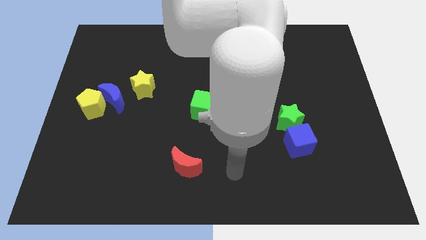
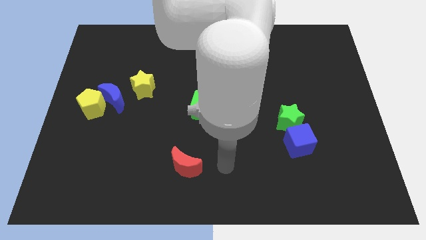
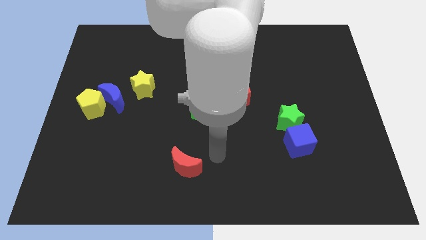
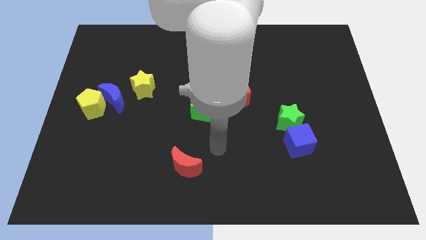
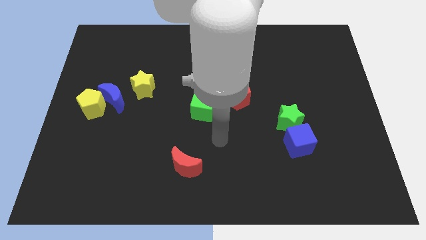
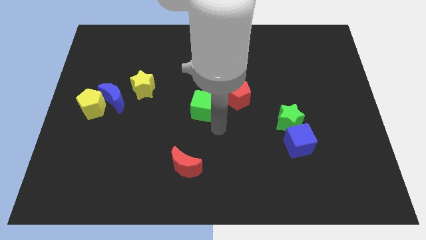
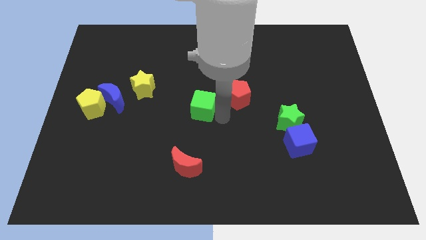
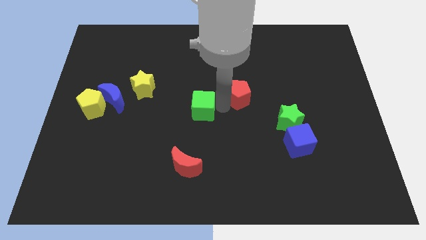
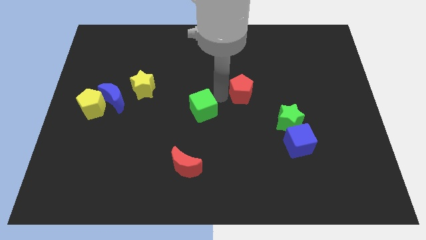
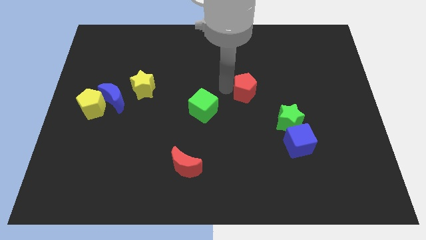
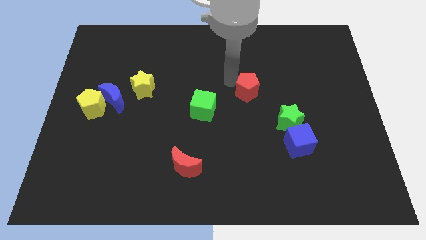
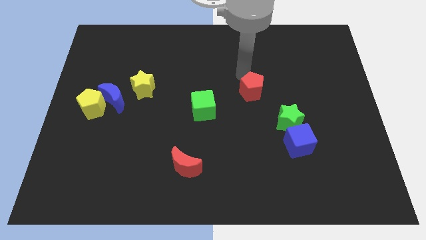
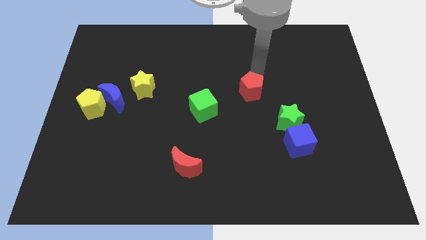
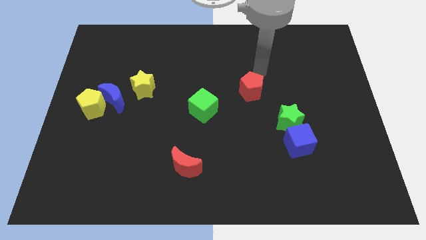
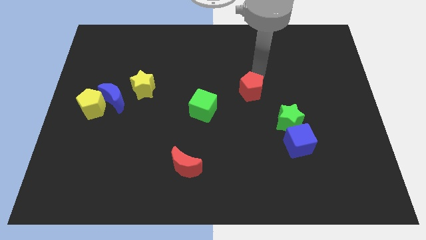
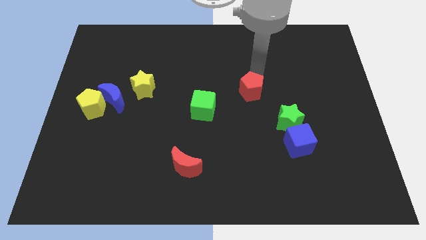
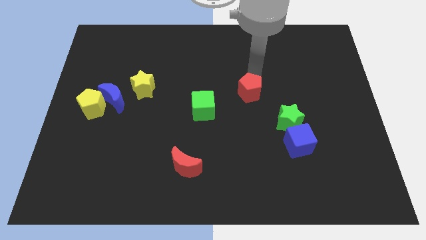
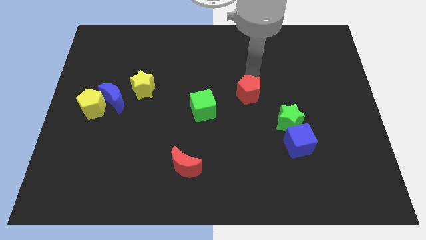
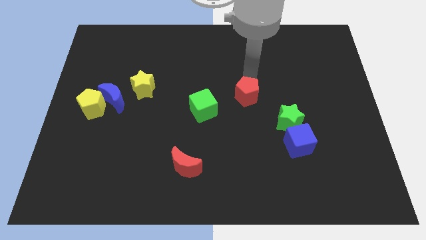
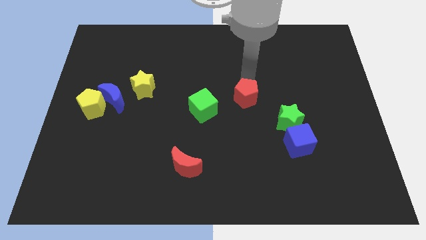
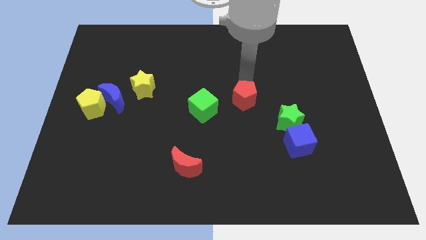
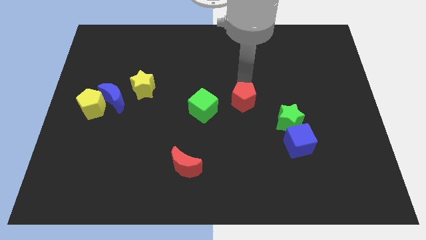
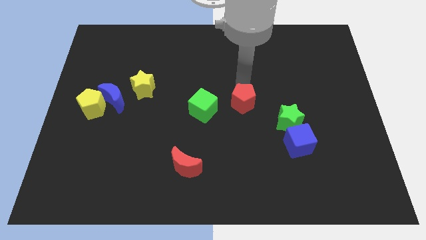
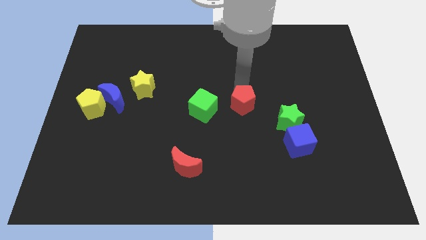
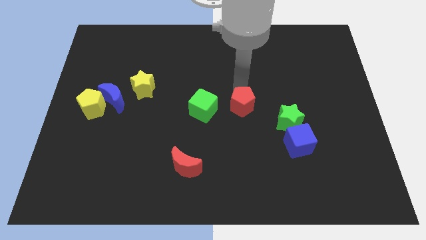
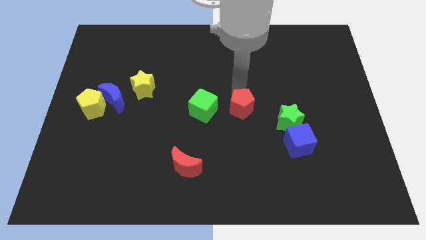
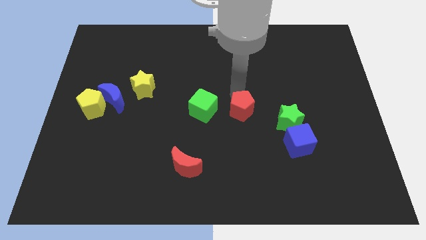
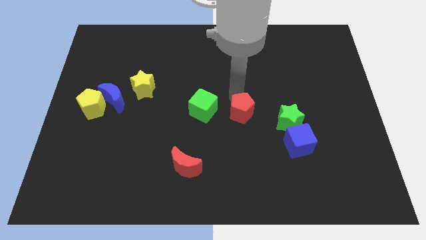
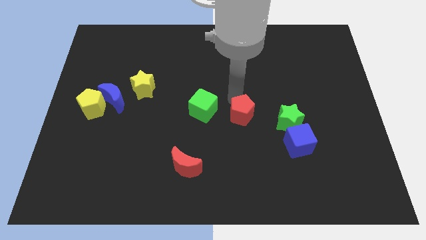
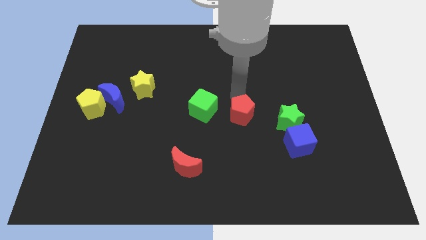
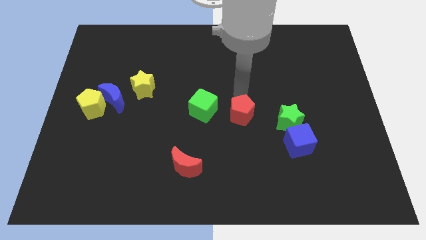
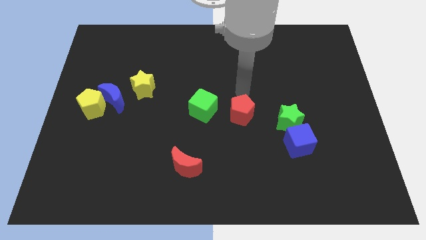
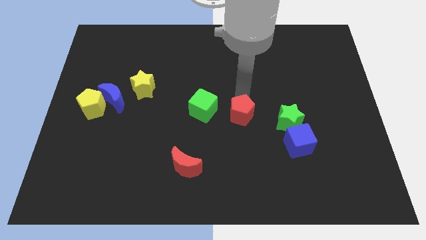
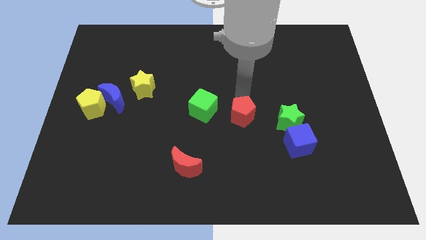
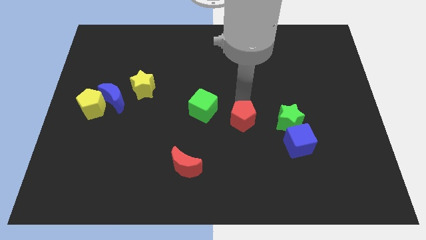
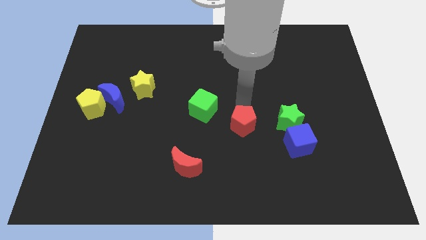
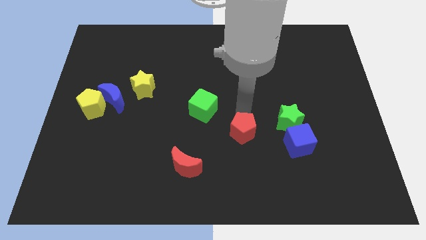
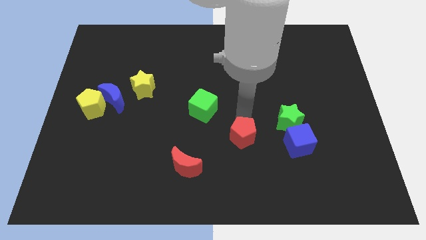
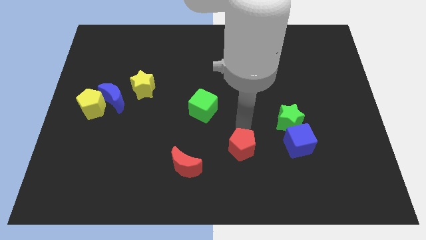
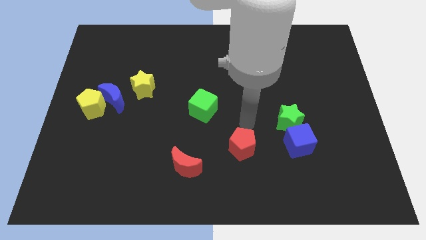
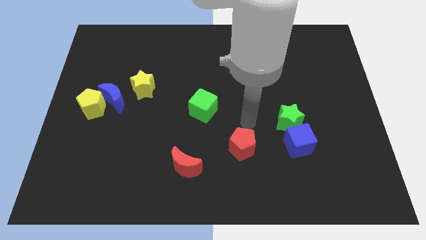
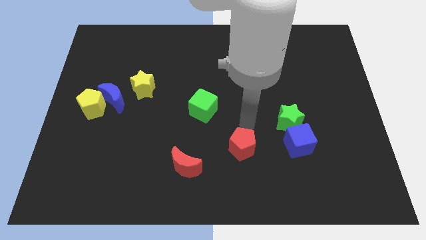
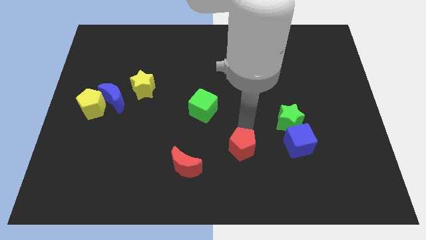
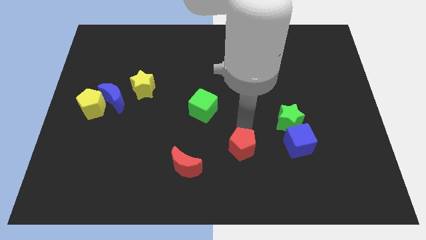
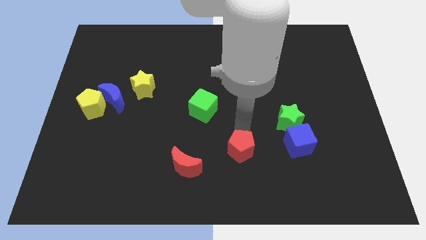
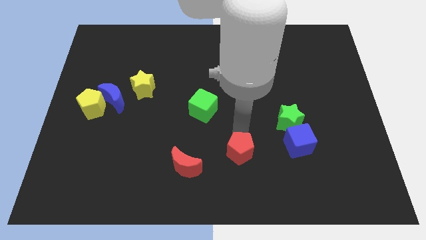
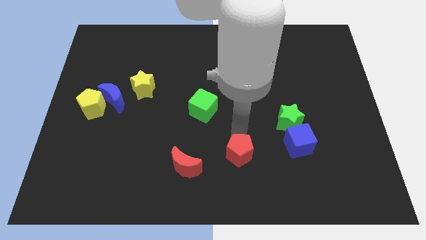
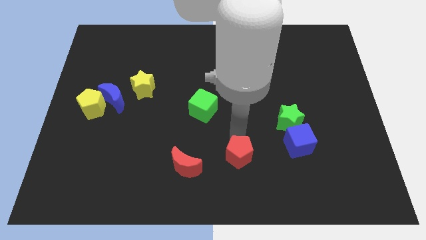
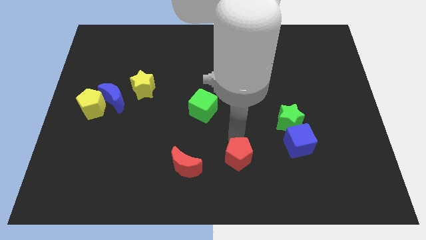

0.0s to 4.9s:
move the red pentagon to the bottom side

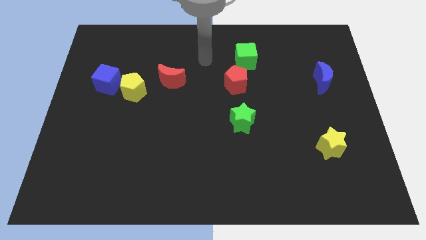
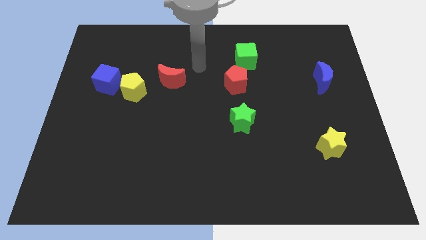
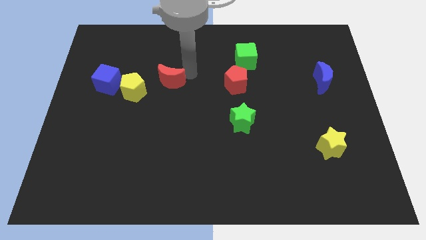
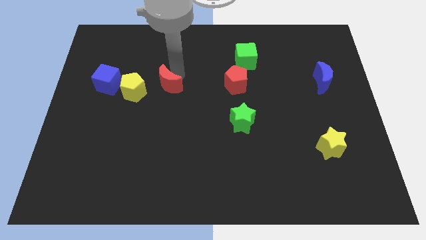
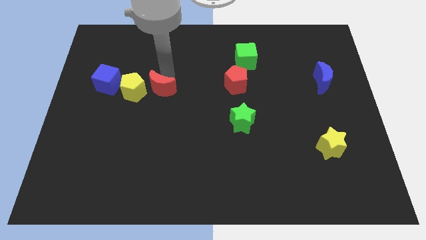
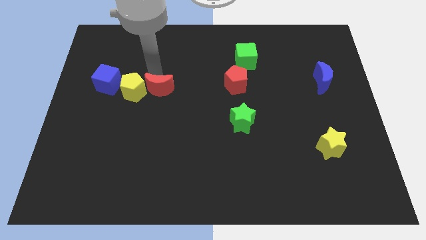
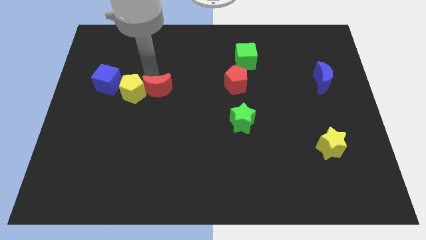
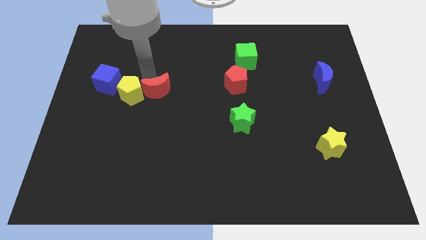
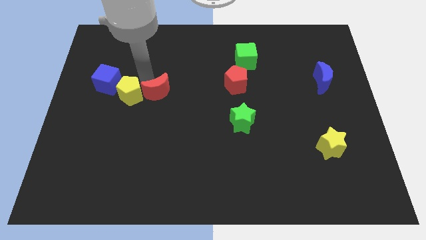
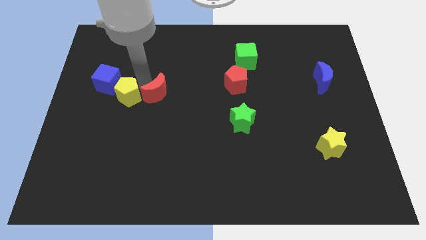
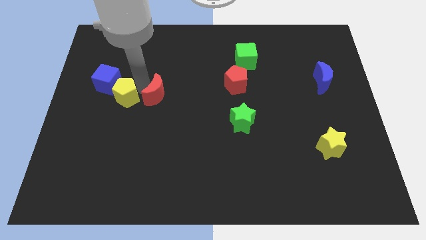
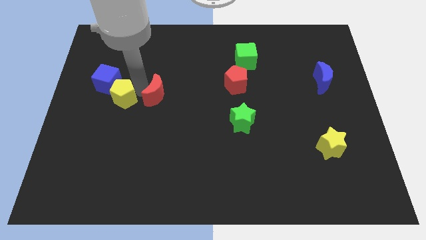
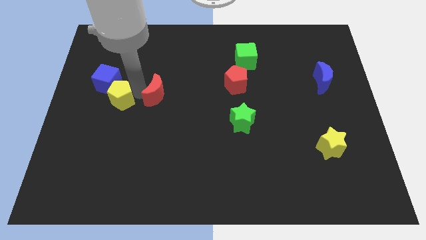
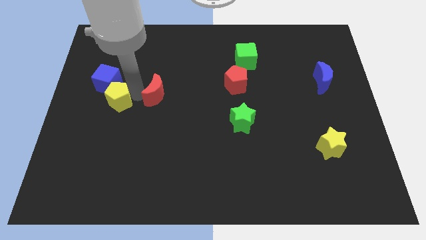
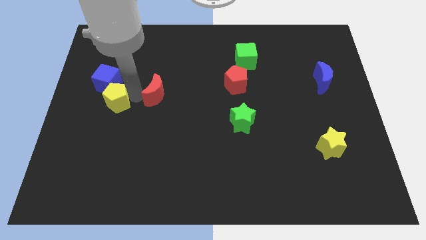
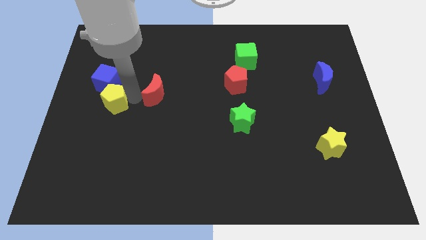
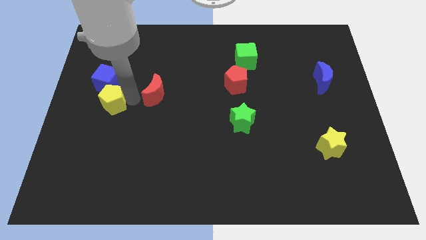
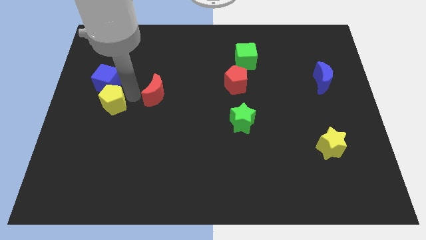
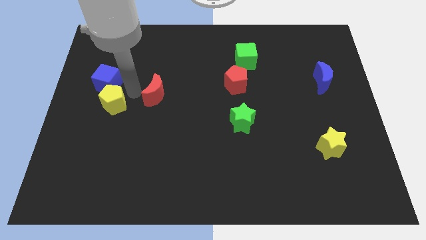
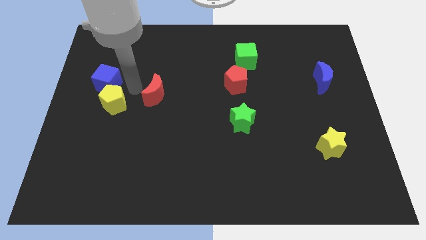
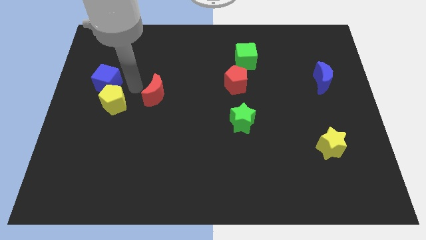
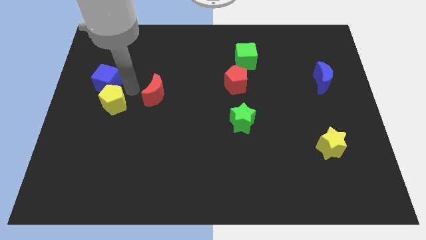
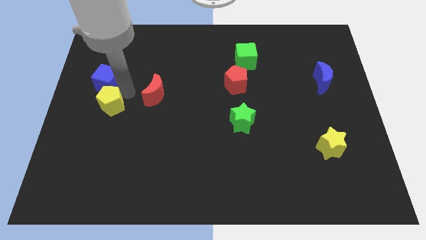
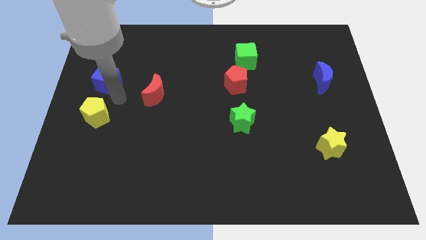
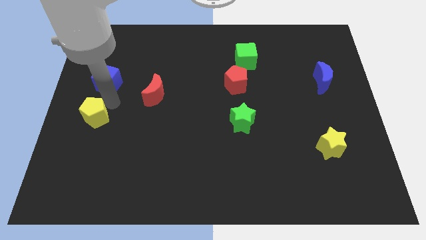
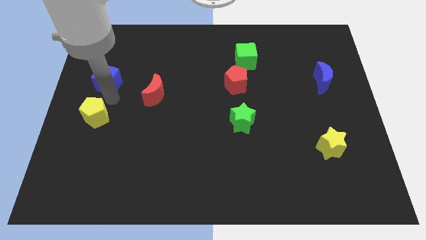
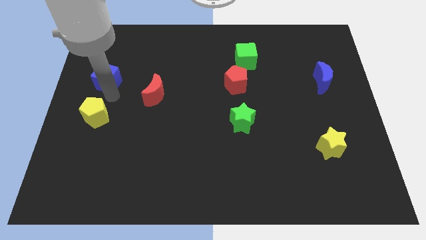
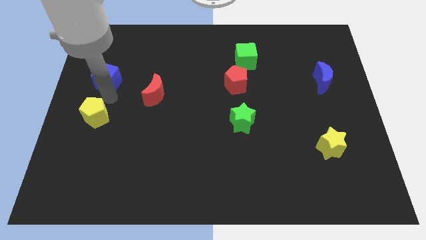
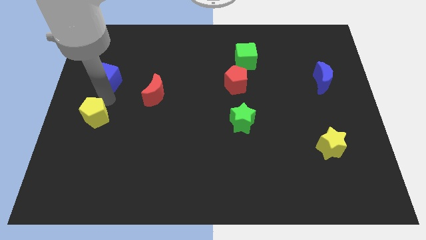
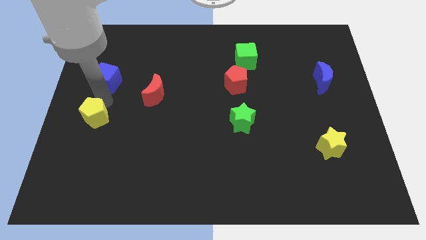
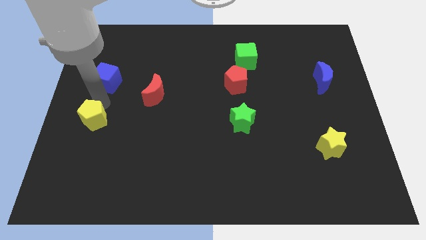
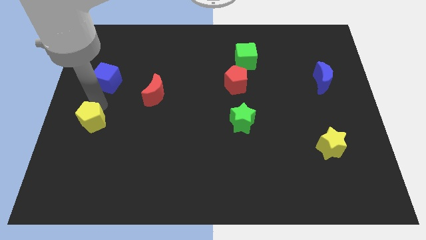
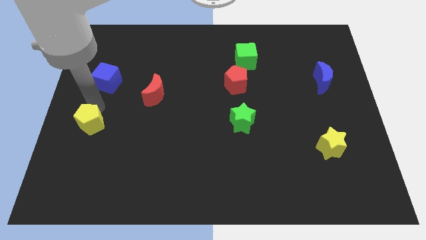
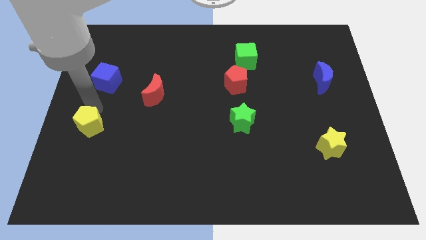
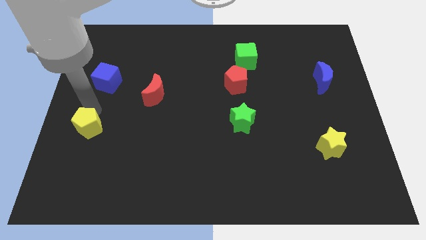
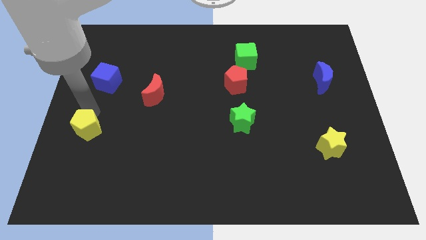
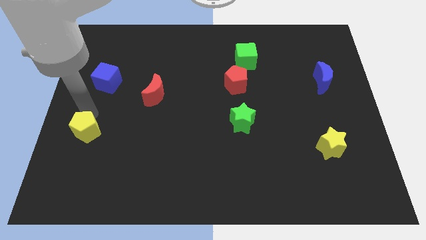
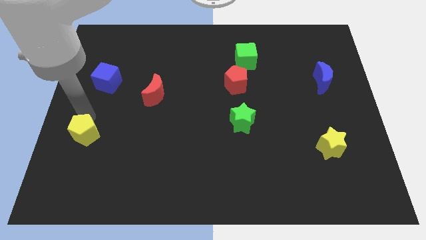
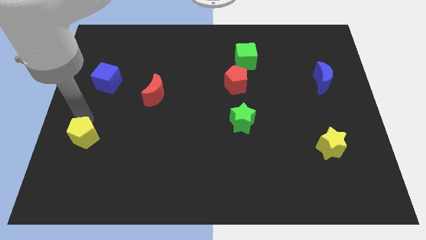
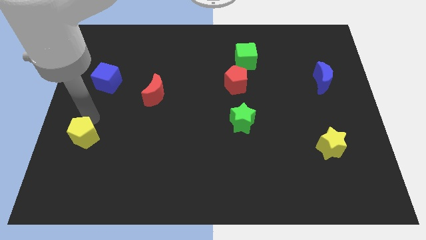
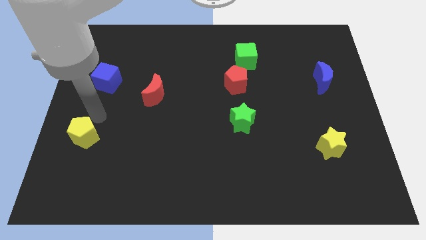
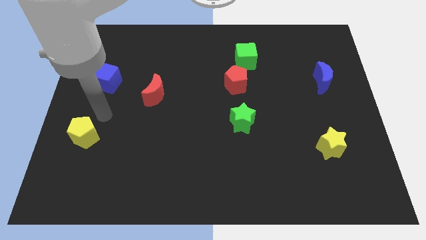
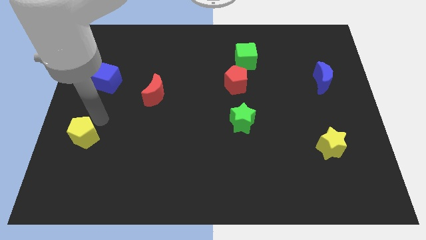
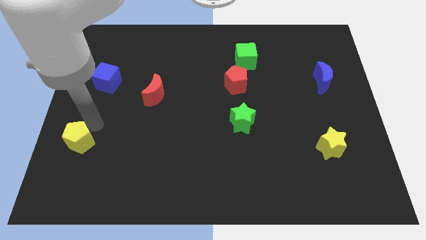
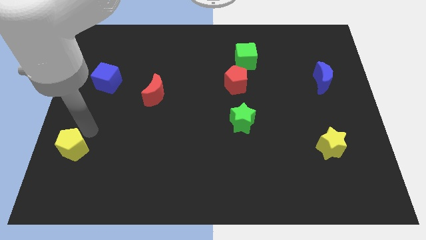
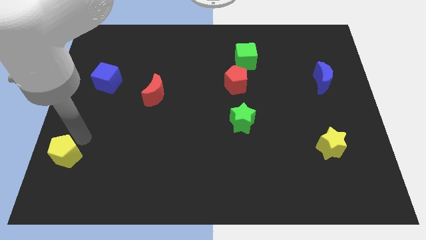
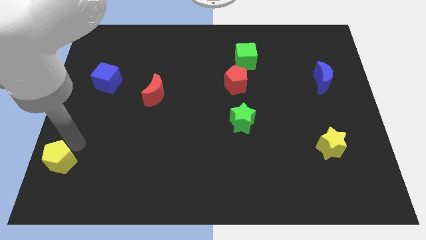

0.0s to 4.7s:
move the yellow pentagon to the bottom left corner
